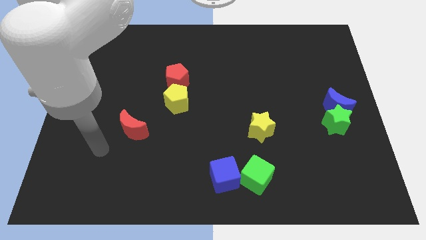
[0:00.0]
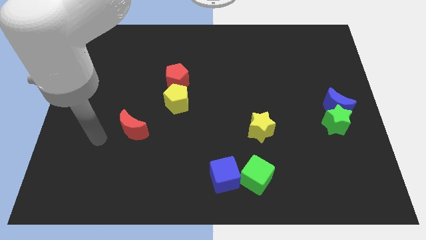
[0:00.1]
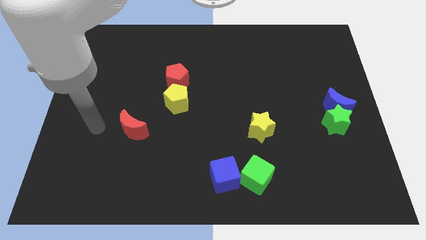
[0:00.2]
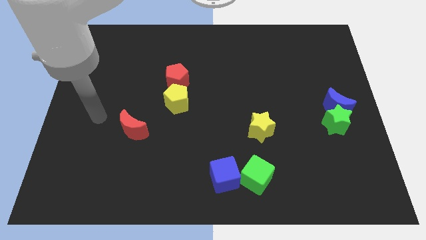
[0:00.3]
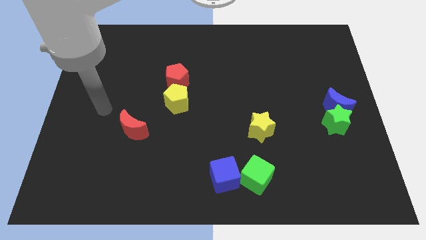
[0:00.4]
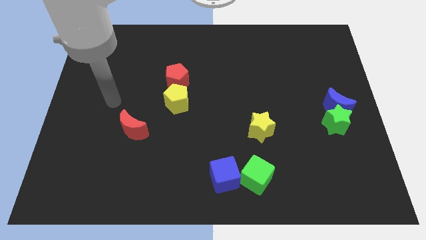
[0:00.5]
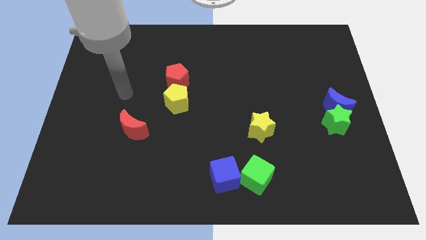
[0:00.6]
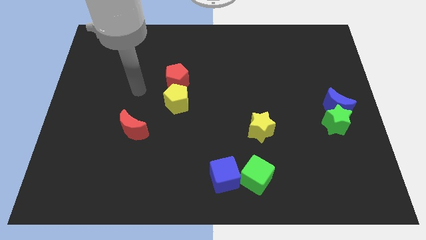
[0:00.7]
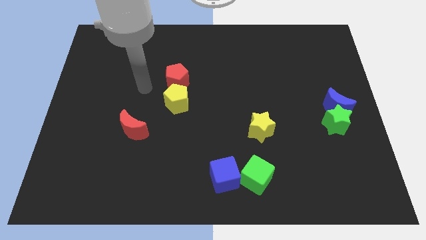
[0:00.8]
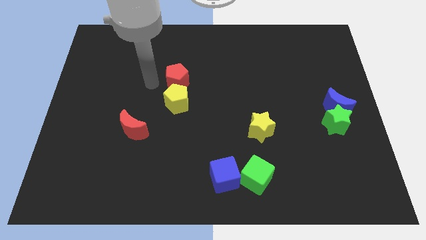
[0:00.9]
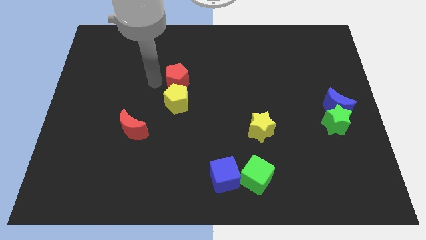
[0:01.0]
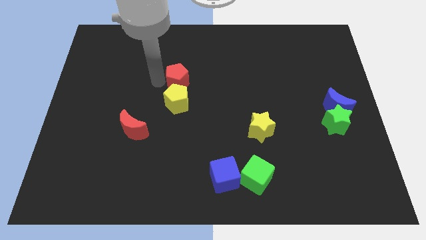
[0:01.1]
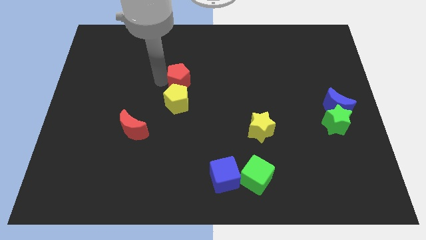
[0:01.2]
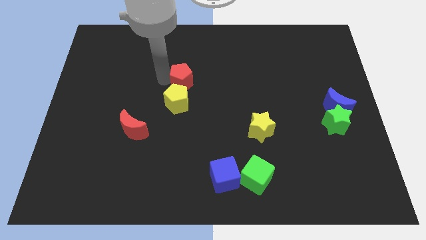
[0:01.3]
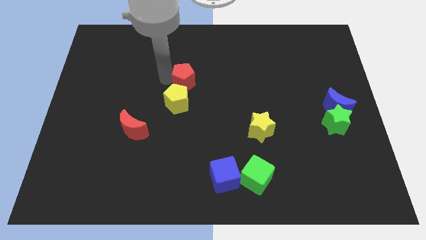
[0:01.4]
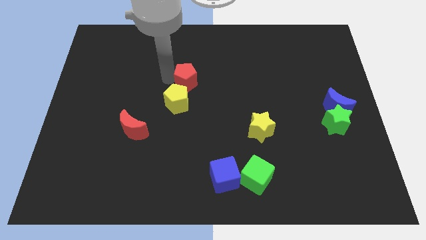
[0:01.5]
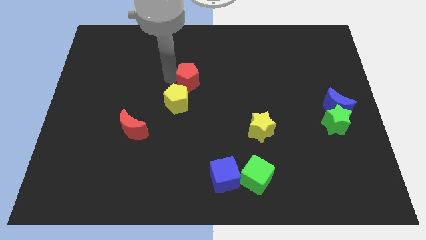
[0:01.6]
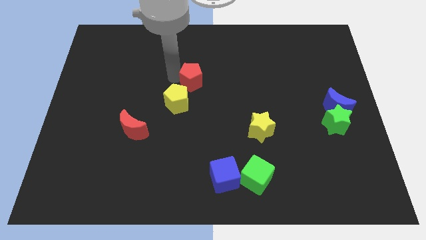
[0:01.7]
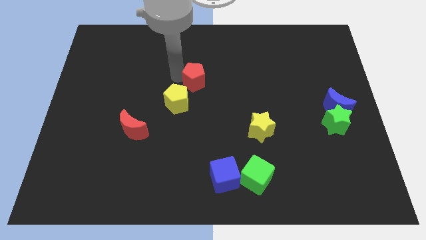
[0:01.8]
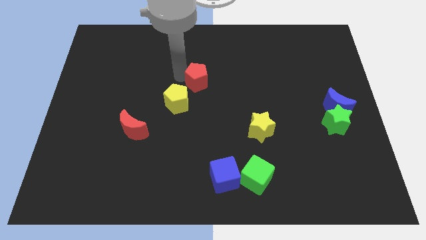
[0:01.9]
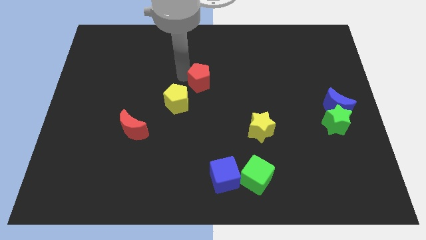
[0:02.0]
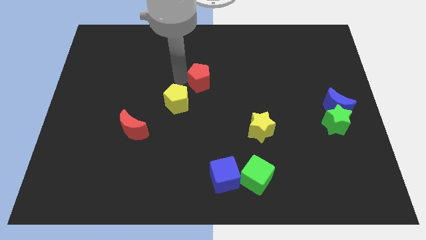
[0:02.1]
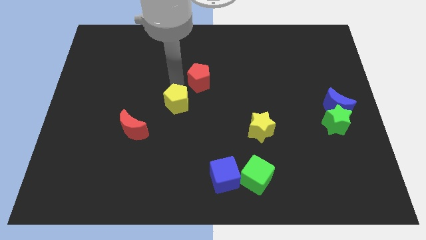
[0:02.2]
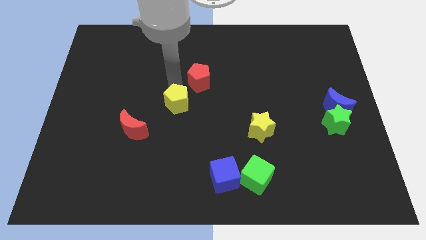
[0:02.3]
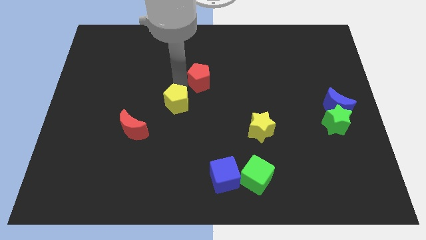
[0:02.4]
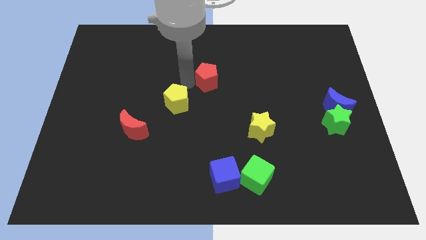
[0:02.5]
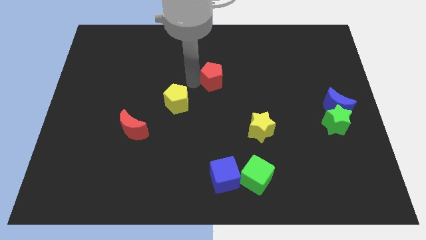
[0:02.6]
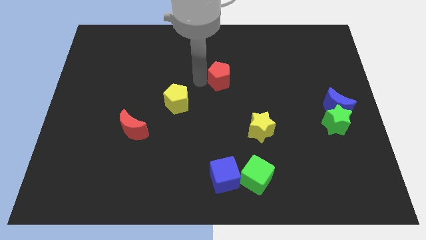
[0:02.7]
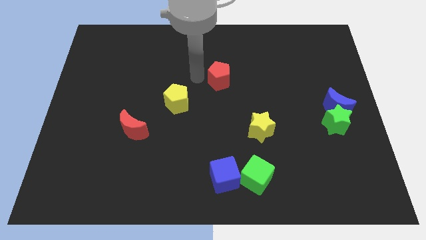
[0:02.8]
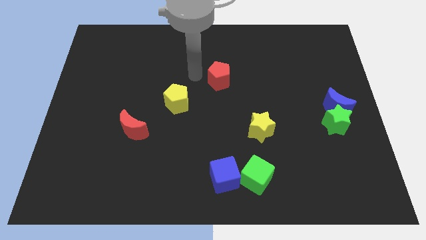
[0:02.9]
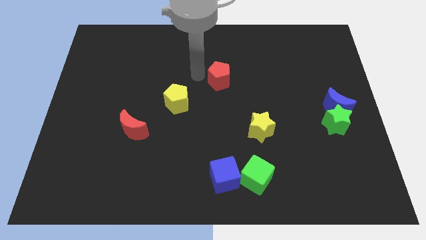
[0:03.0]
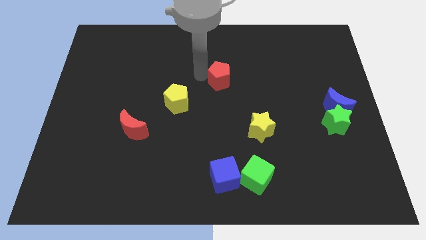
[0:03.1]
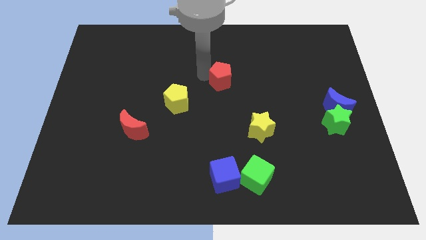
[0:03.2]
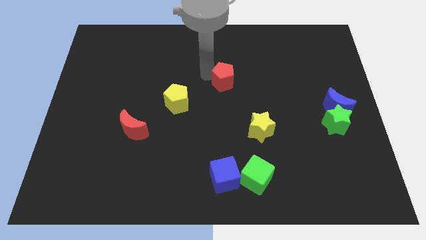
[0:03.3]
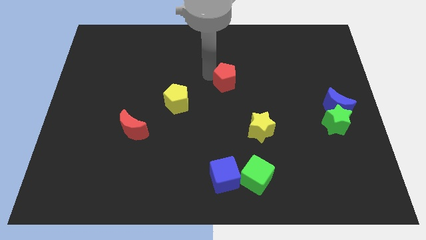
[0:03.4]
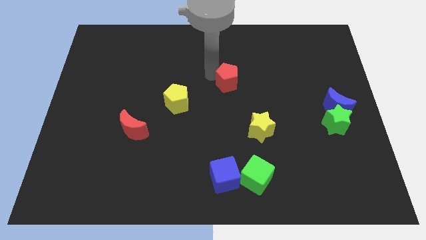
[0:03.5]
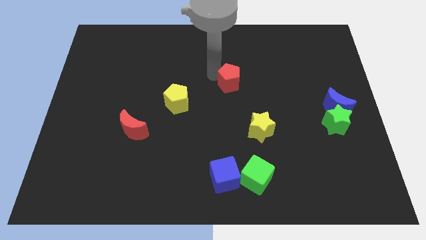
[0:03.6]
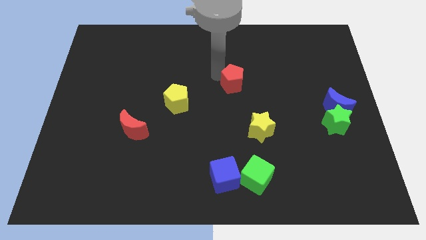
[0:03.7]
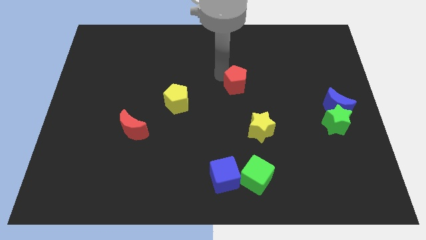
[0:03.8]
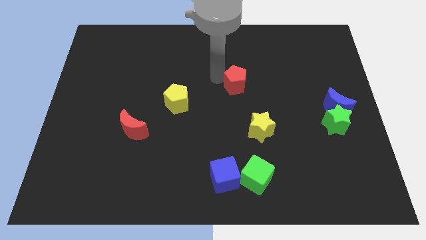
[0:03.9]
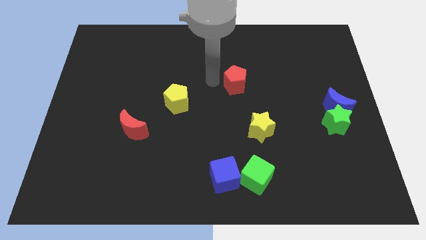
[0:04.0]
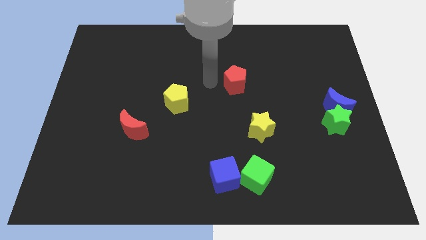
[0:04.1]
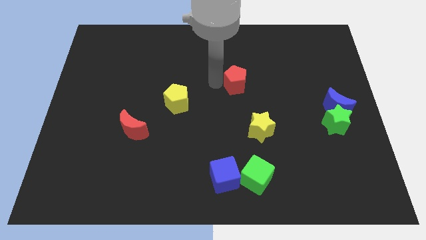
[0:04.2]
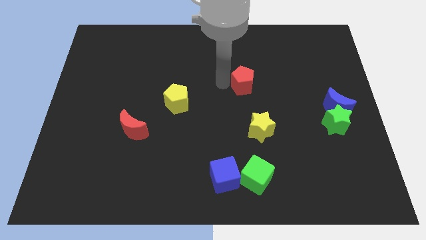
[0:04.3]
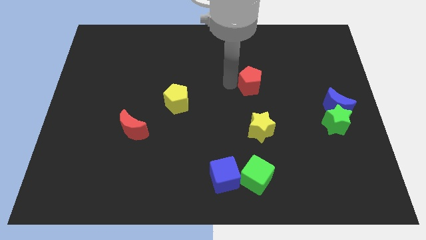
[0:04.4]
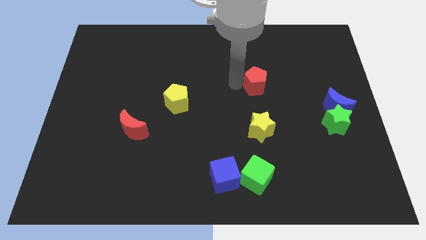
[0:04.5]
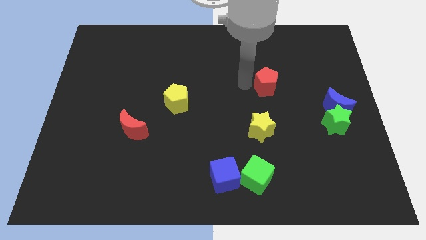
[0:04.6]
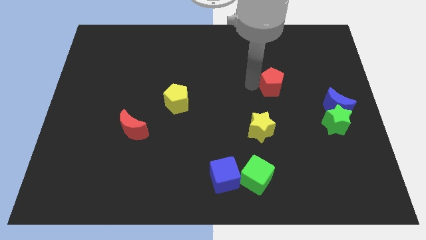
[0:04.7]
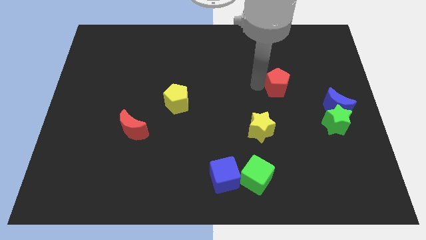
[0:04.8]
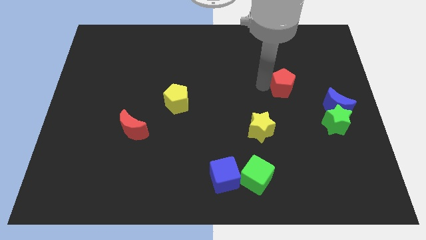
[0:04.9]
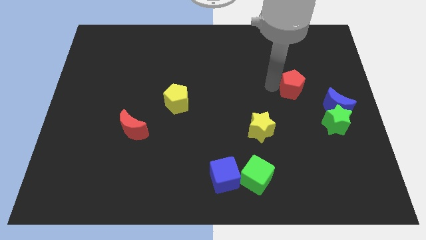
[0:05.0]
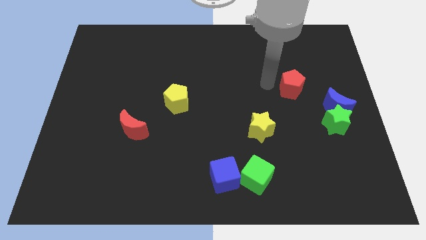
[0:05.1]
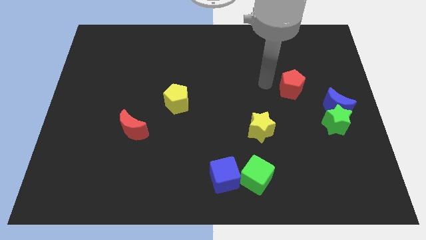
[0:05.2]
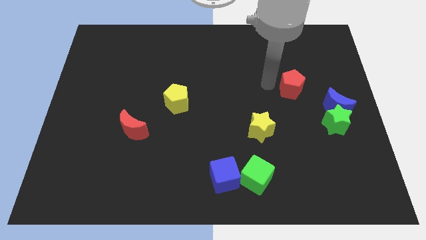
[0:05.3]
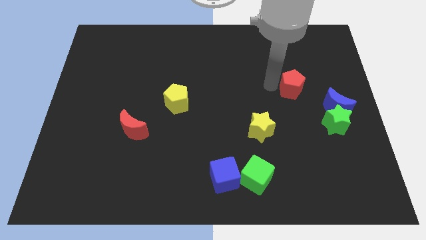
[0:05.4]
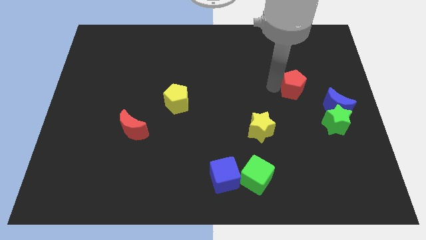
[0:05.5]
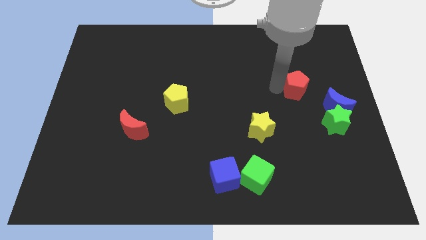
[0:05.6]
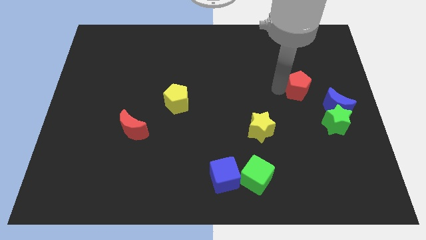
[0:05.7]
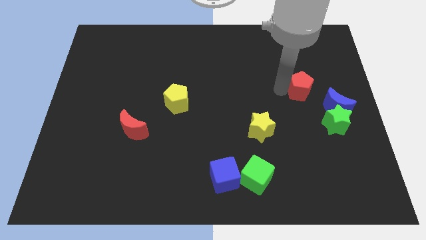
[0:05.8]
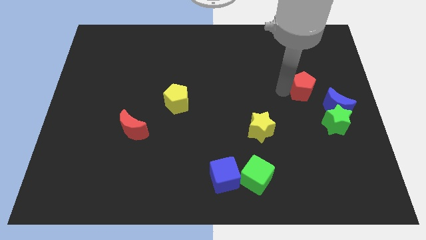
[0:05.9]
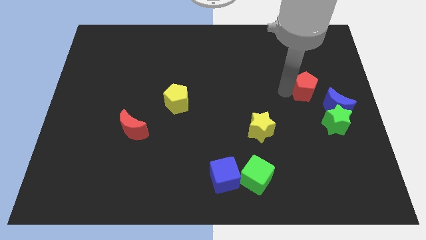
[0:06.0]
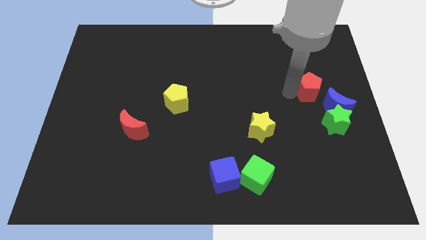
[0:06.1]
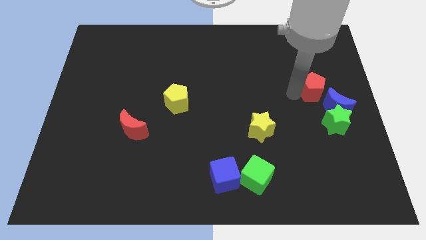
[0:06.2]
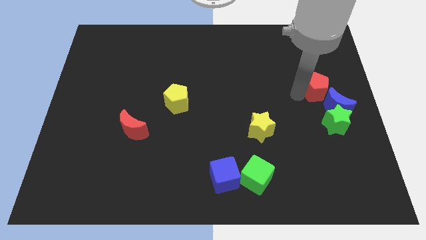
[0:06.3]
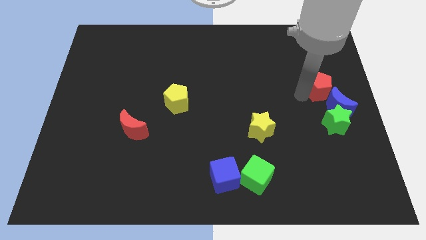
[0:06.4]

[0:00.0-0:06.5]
move the red pentagon to the right side
